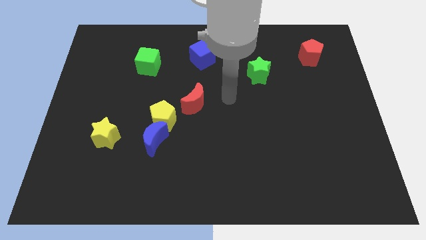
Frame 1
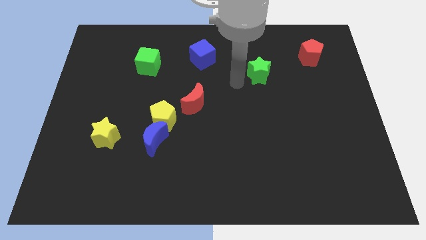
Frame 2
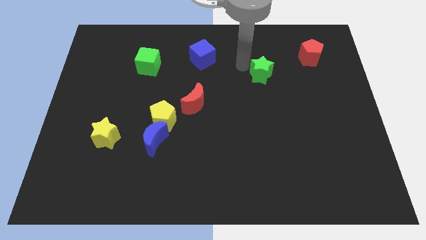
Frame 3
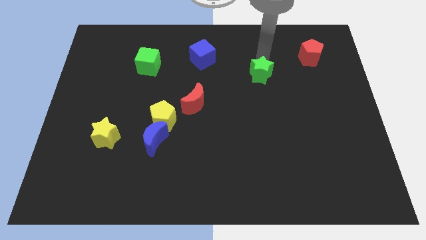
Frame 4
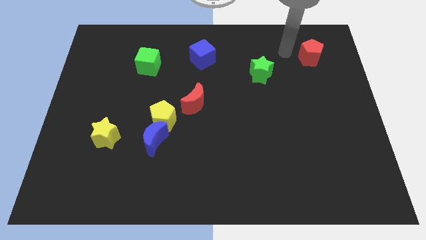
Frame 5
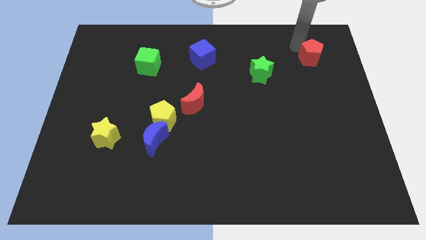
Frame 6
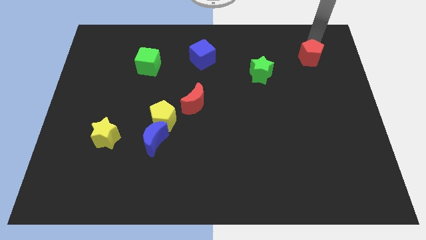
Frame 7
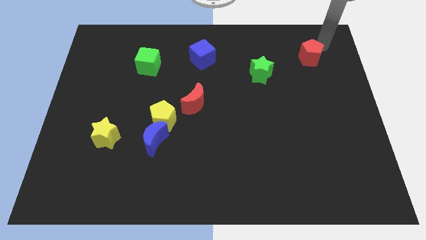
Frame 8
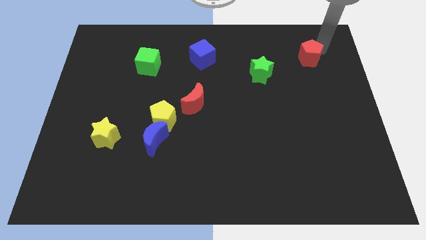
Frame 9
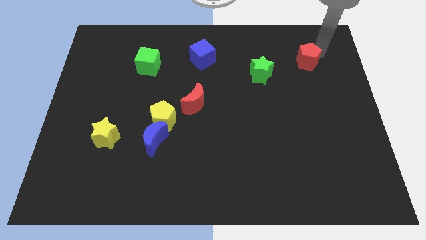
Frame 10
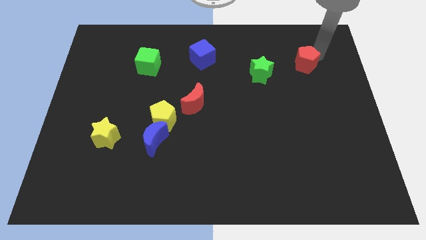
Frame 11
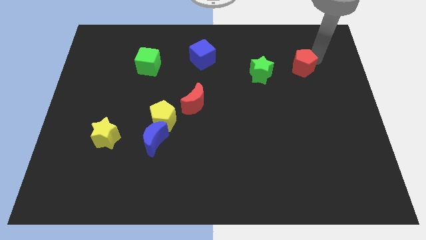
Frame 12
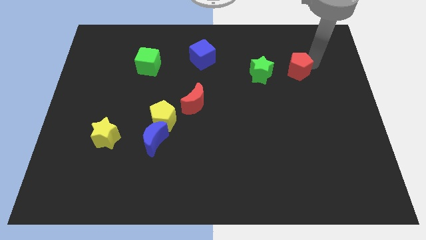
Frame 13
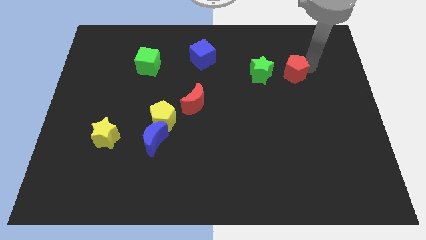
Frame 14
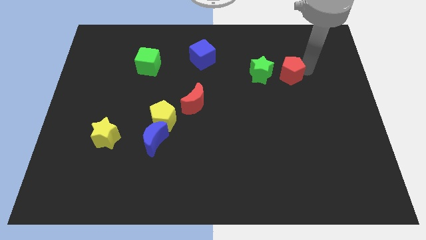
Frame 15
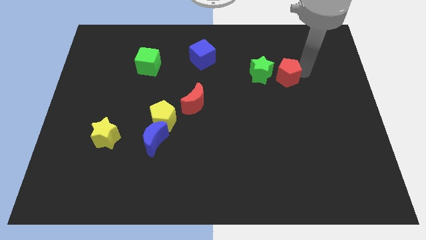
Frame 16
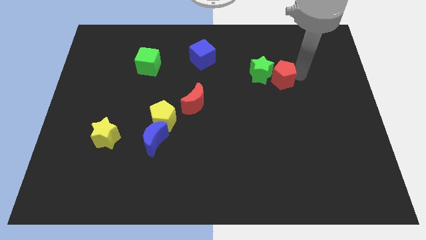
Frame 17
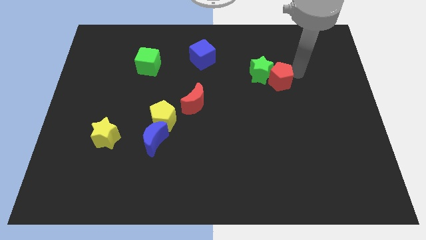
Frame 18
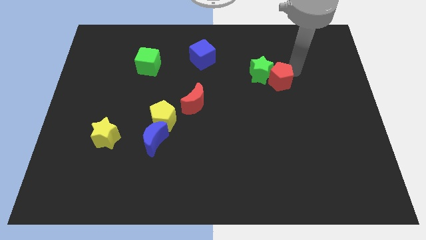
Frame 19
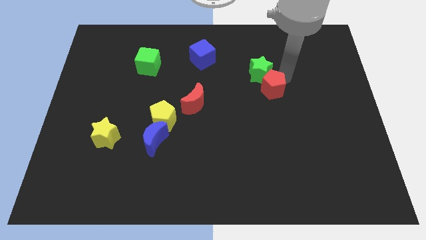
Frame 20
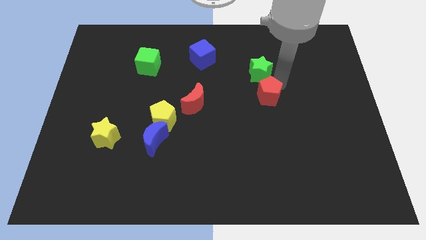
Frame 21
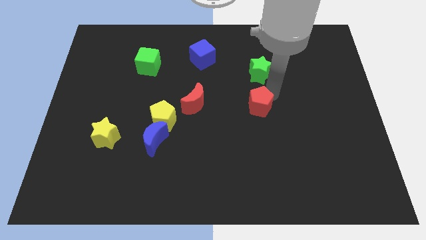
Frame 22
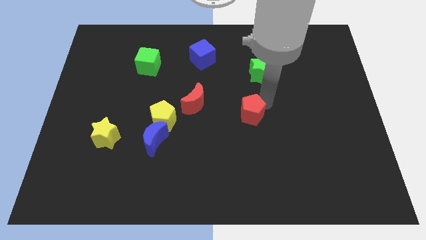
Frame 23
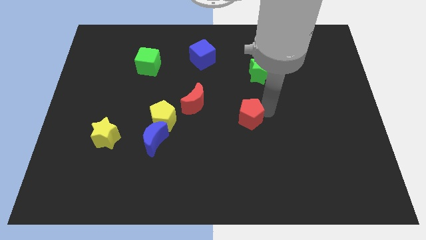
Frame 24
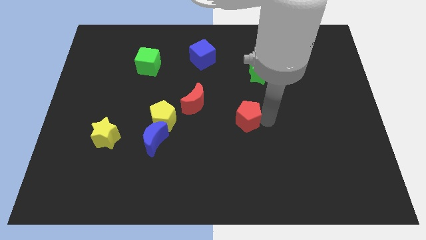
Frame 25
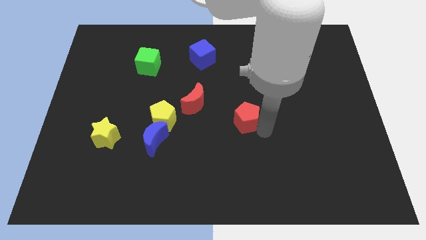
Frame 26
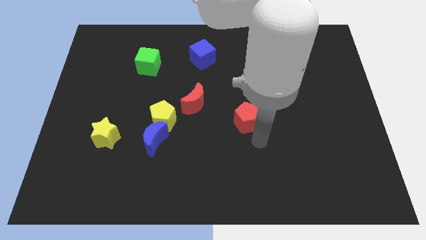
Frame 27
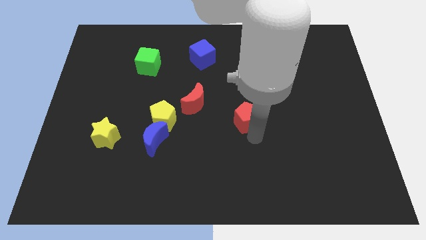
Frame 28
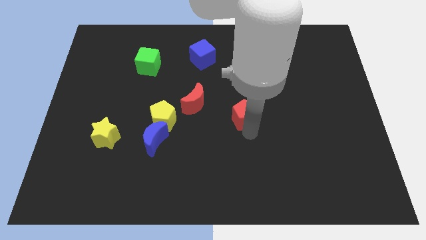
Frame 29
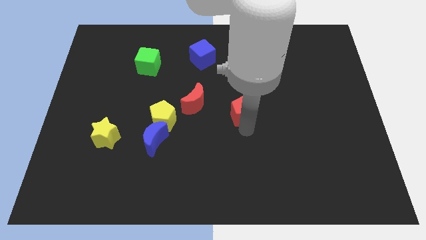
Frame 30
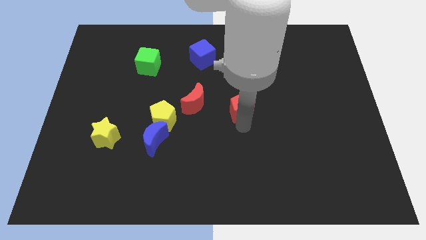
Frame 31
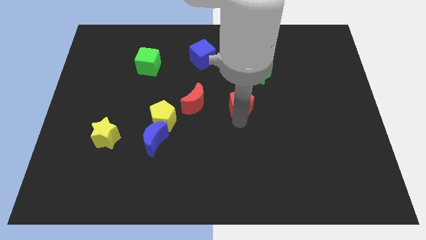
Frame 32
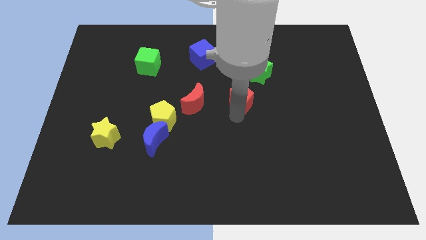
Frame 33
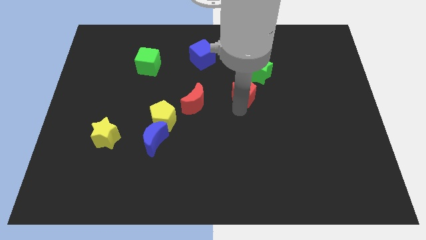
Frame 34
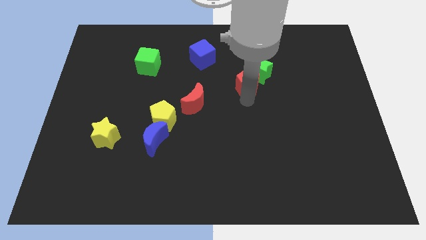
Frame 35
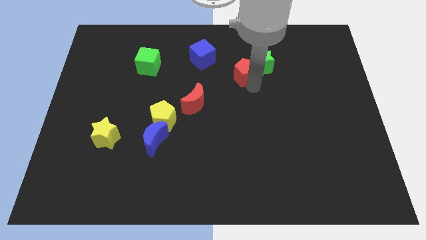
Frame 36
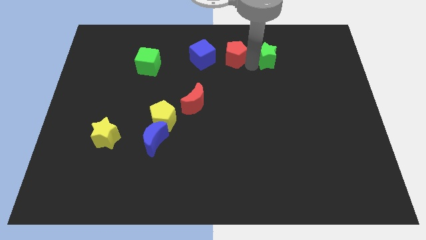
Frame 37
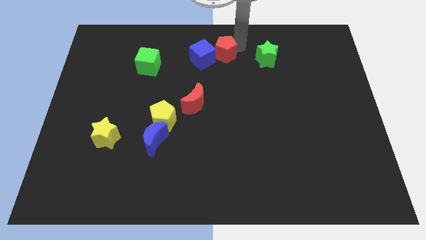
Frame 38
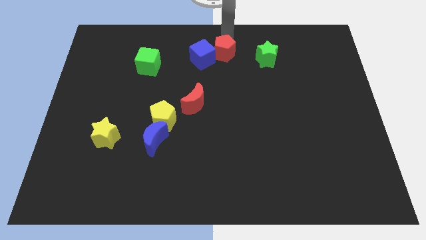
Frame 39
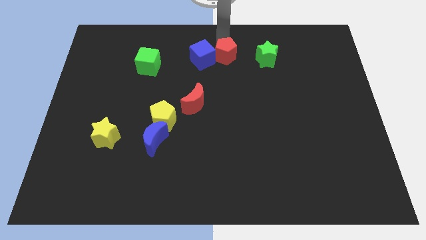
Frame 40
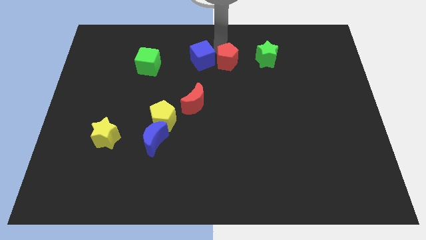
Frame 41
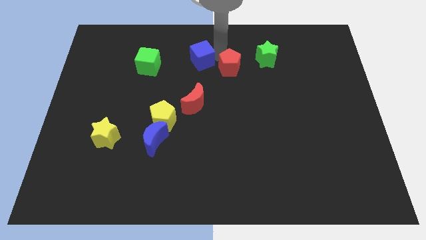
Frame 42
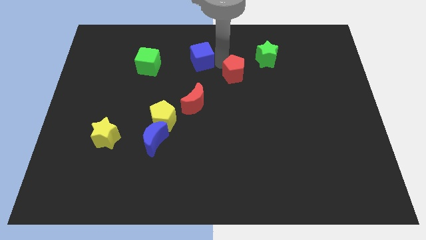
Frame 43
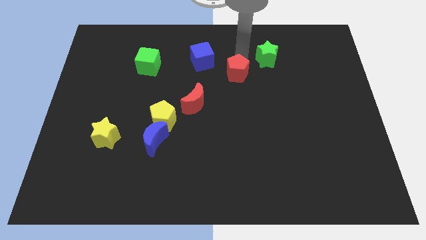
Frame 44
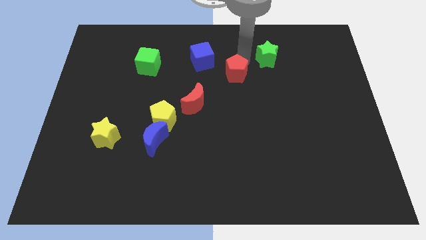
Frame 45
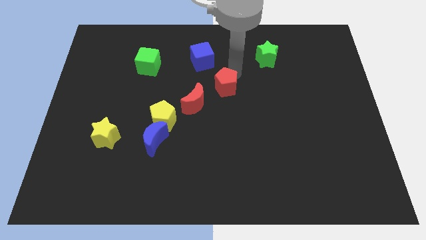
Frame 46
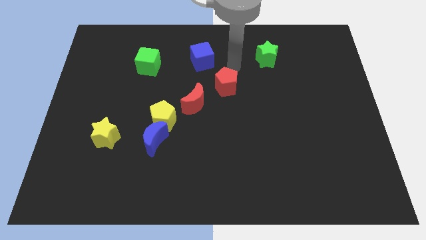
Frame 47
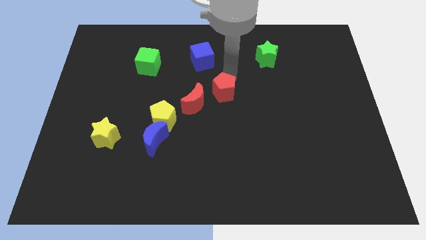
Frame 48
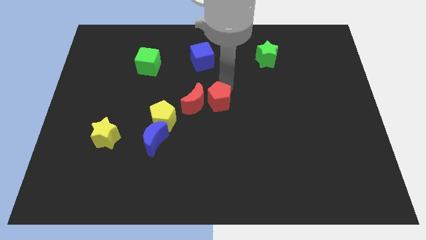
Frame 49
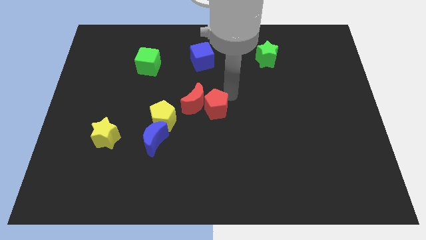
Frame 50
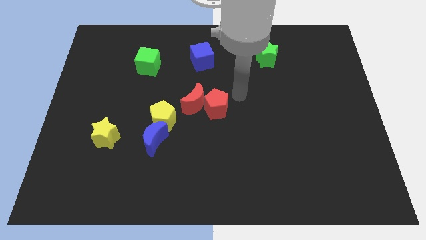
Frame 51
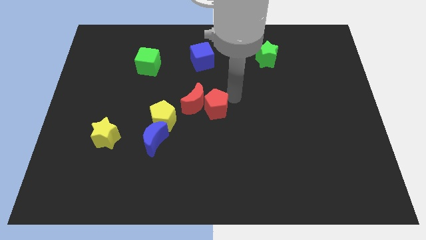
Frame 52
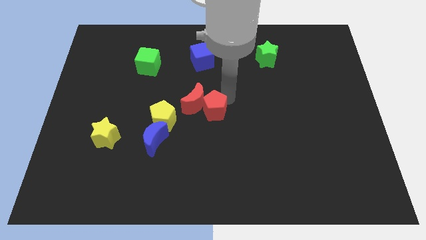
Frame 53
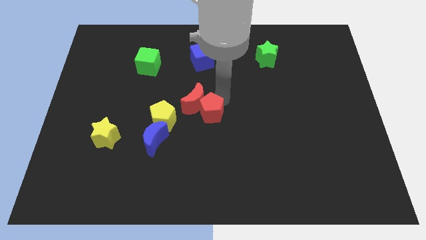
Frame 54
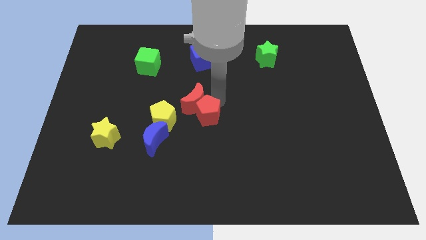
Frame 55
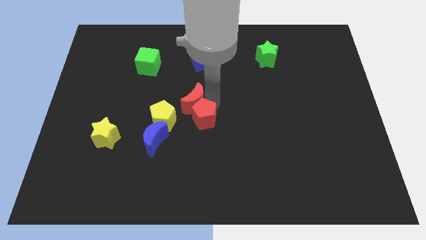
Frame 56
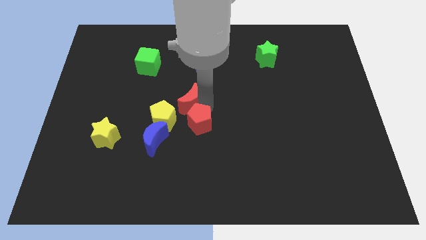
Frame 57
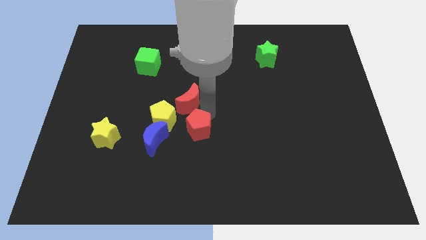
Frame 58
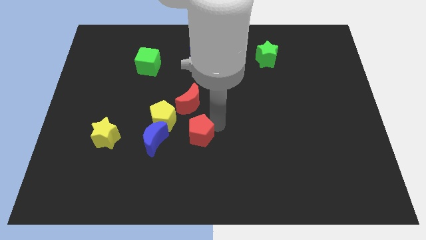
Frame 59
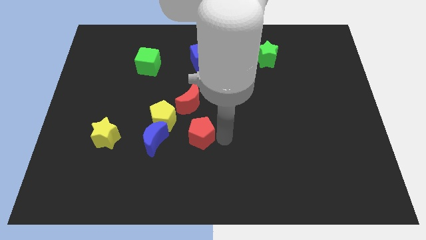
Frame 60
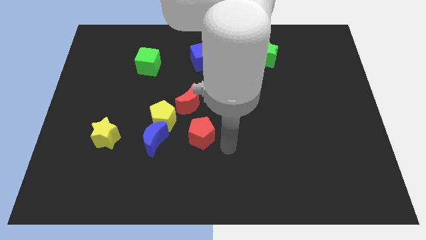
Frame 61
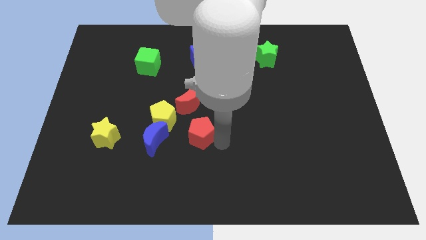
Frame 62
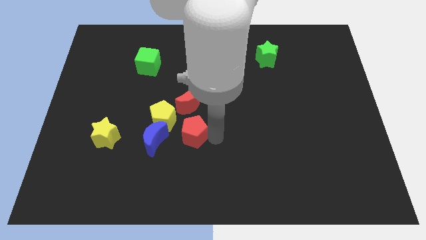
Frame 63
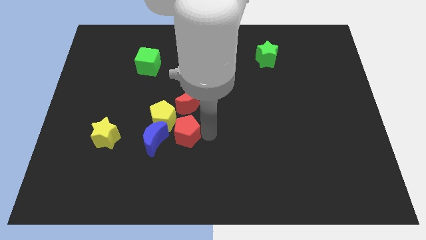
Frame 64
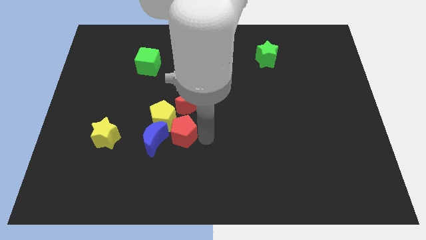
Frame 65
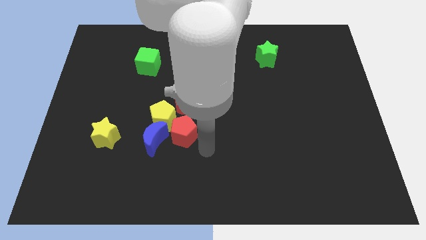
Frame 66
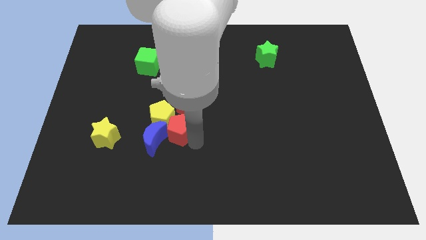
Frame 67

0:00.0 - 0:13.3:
move the red pentagon close to the yellow pentagon
